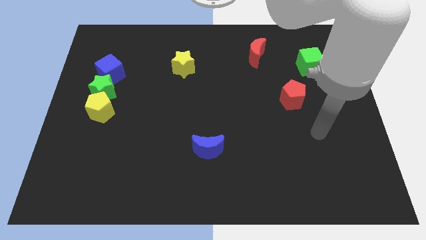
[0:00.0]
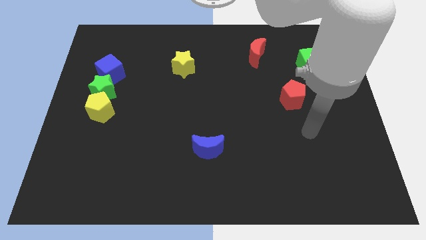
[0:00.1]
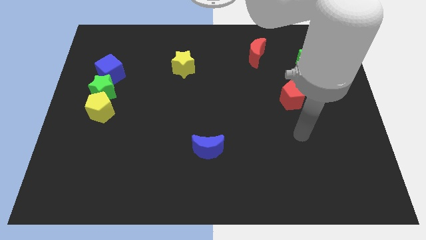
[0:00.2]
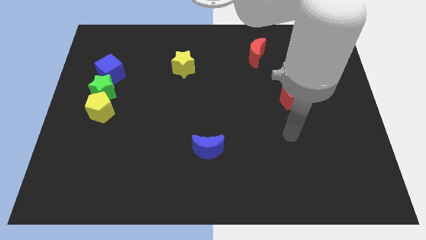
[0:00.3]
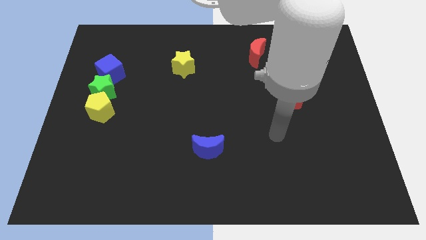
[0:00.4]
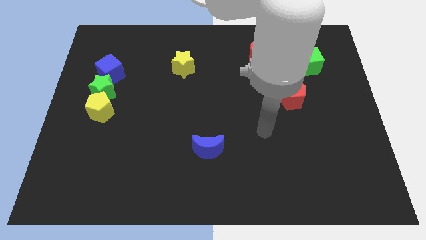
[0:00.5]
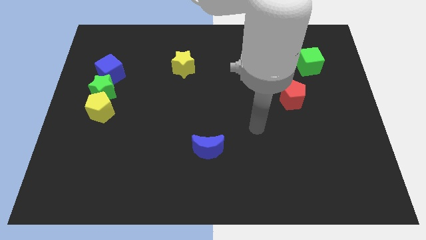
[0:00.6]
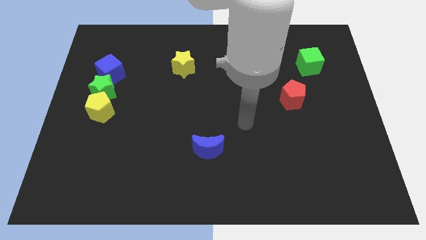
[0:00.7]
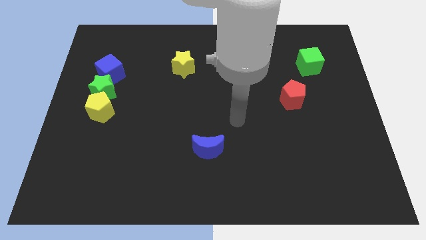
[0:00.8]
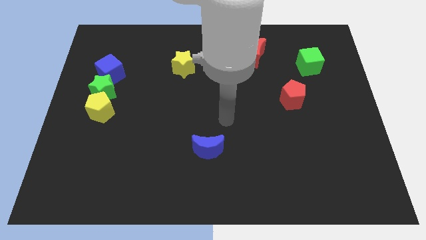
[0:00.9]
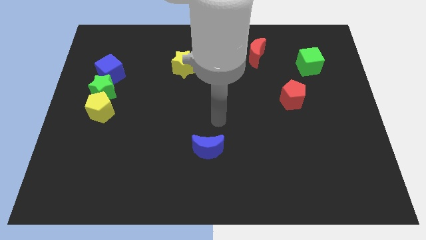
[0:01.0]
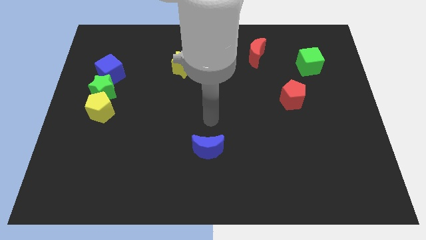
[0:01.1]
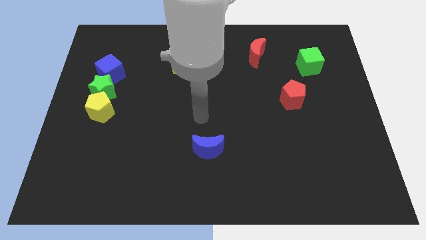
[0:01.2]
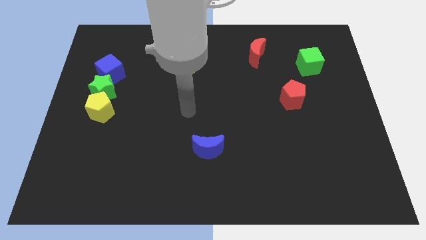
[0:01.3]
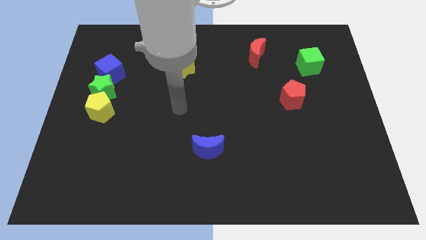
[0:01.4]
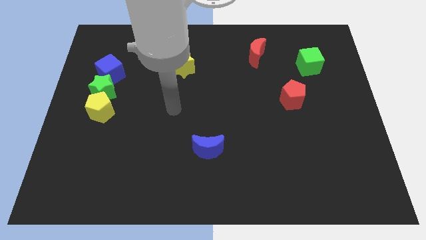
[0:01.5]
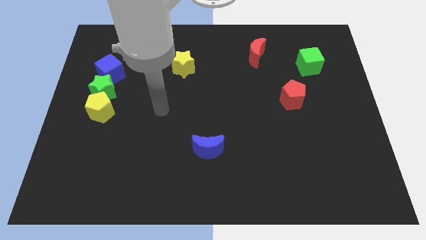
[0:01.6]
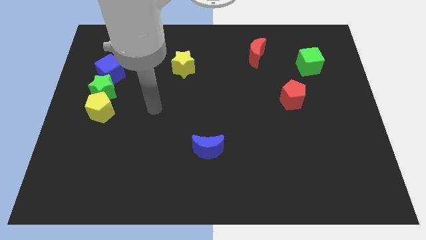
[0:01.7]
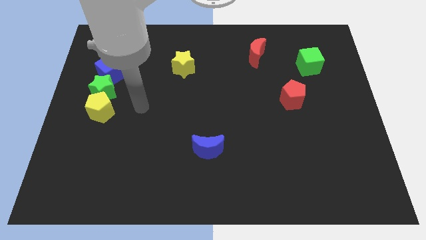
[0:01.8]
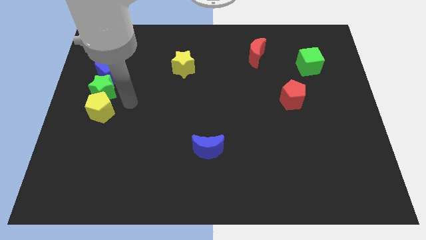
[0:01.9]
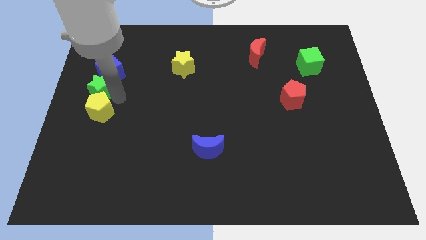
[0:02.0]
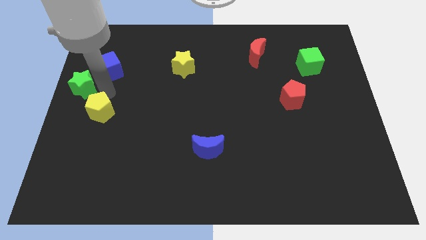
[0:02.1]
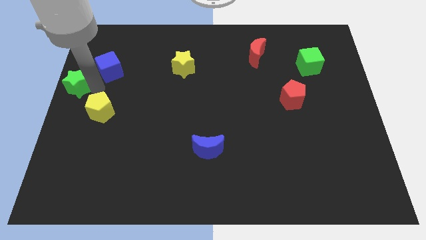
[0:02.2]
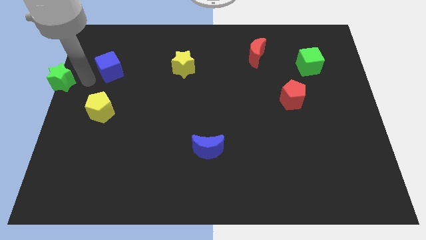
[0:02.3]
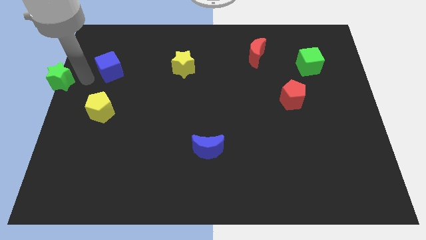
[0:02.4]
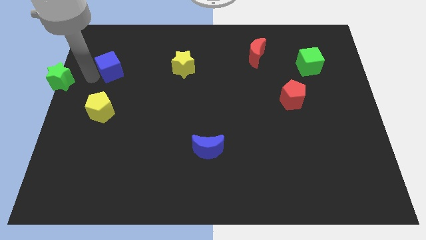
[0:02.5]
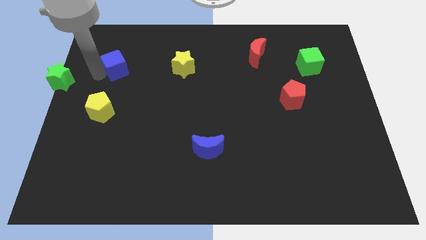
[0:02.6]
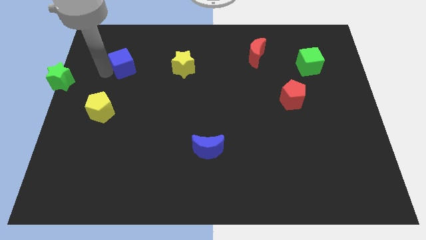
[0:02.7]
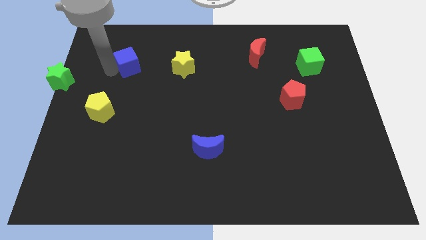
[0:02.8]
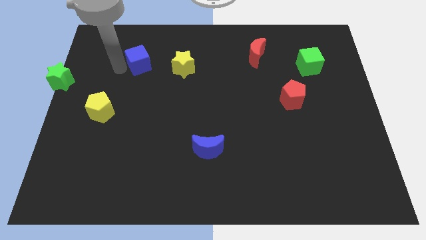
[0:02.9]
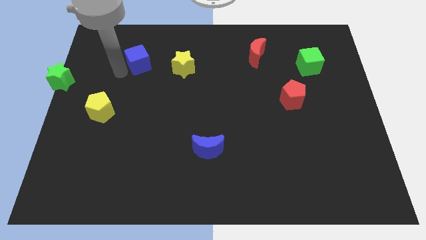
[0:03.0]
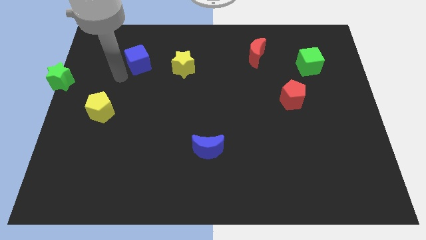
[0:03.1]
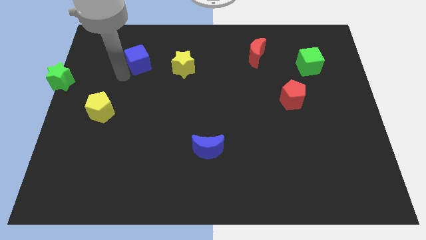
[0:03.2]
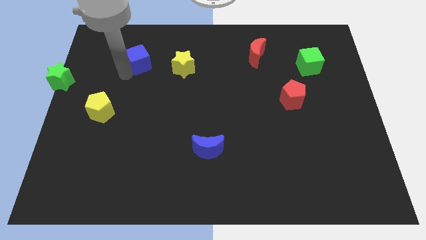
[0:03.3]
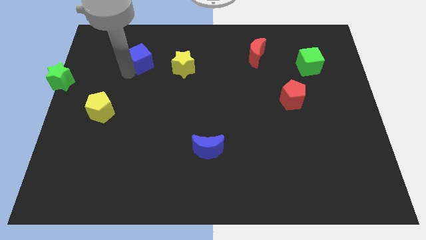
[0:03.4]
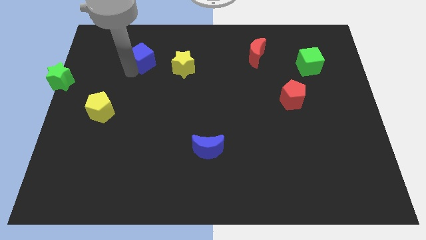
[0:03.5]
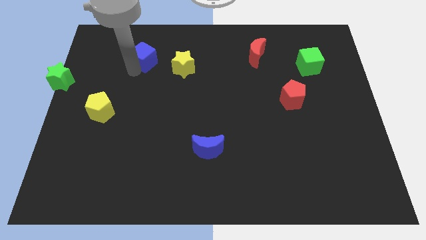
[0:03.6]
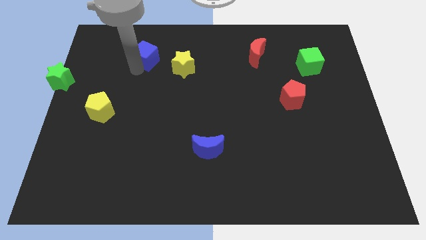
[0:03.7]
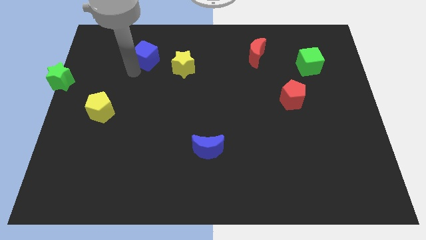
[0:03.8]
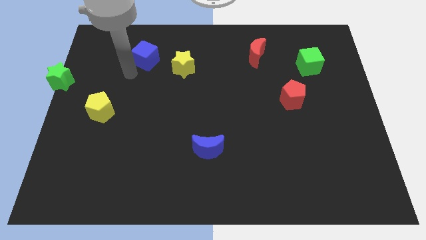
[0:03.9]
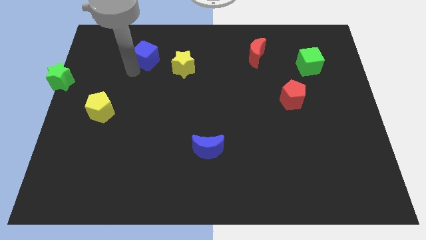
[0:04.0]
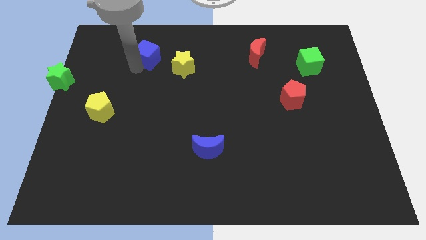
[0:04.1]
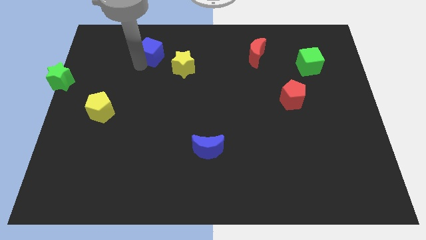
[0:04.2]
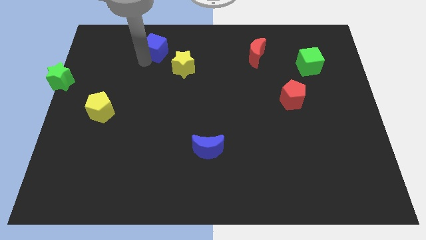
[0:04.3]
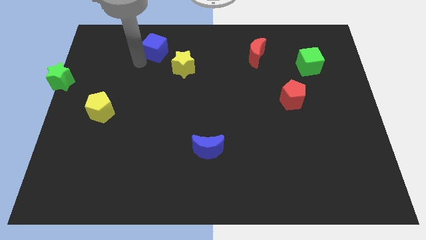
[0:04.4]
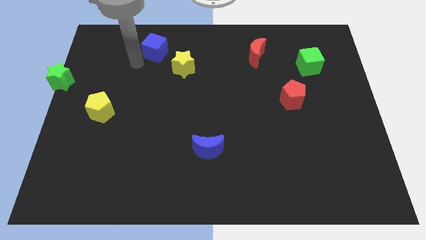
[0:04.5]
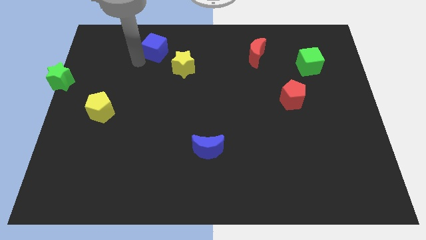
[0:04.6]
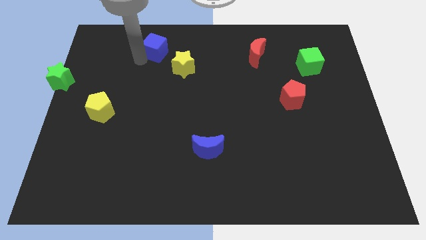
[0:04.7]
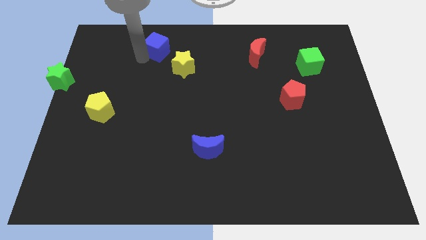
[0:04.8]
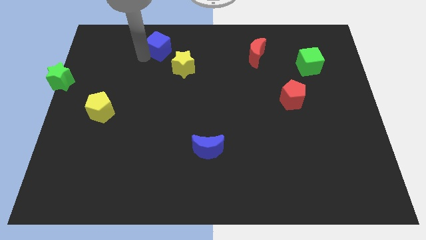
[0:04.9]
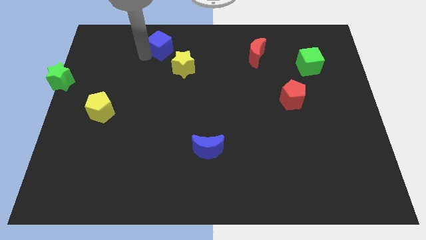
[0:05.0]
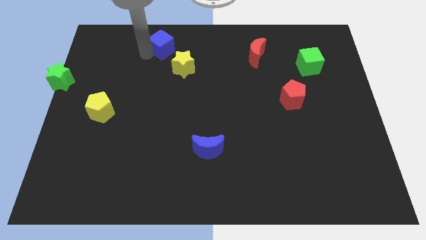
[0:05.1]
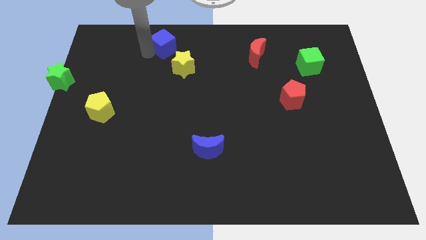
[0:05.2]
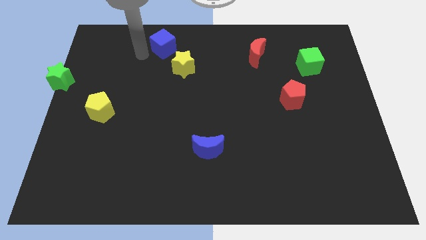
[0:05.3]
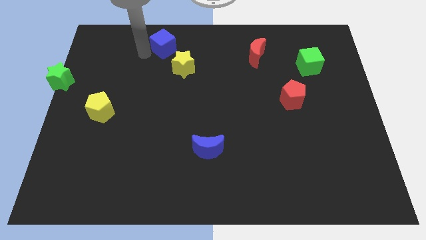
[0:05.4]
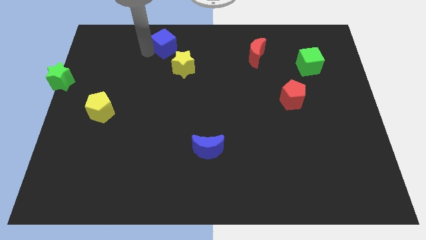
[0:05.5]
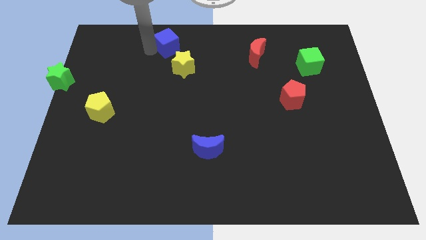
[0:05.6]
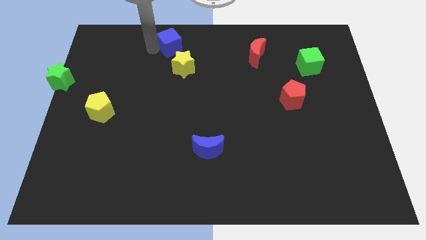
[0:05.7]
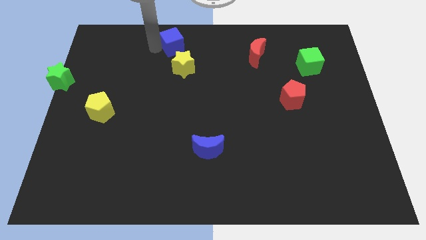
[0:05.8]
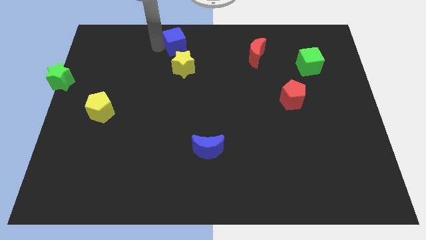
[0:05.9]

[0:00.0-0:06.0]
move the blue cube to the top

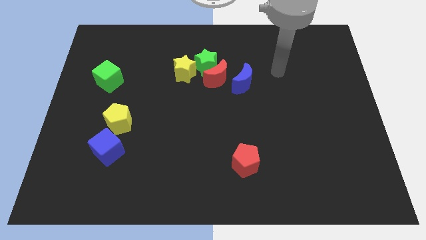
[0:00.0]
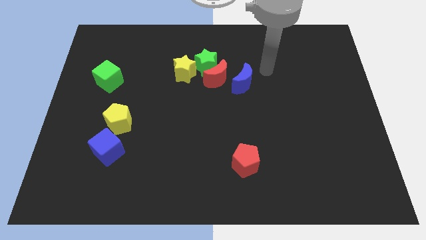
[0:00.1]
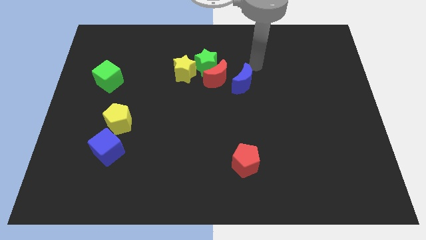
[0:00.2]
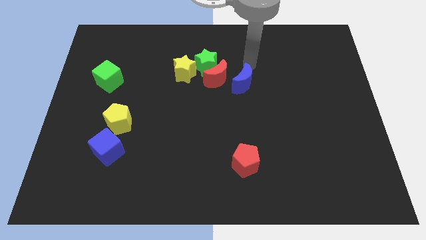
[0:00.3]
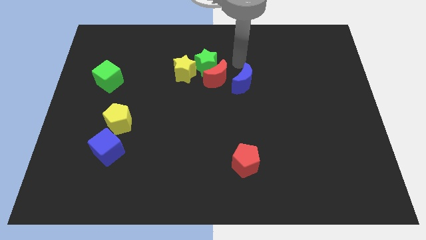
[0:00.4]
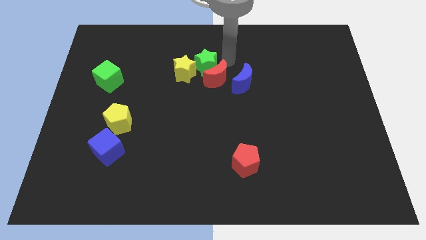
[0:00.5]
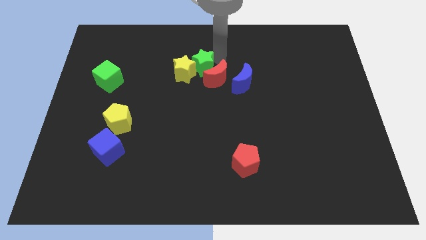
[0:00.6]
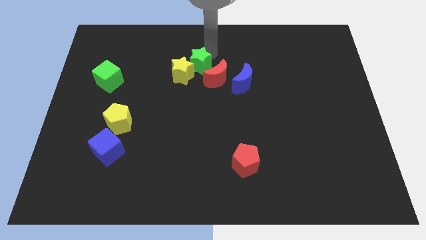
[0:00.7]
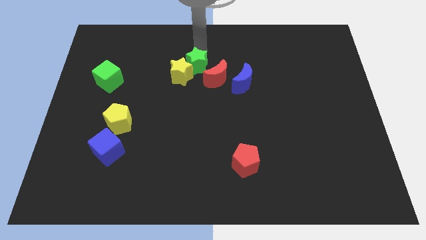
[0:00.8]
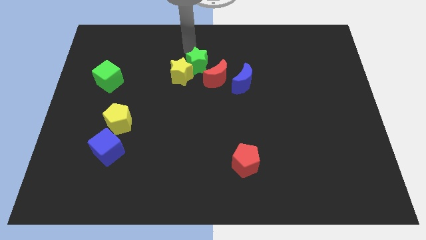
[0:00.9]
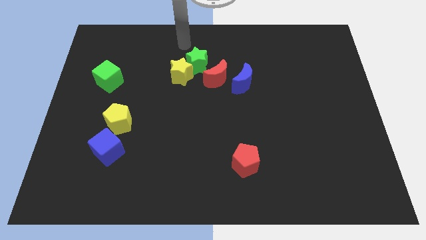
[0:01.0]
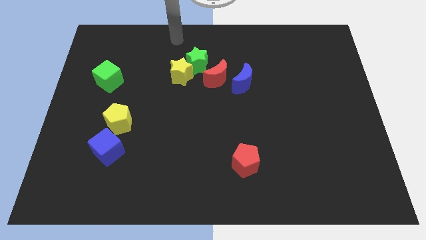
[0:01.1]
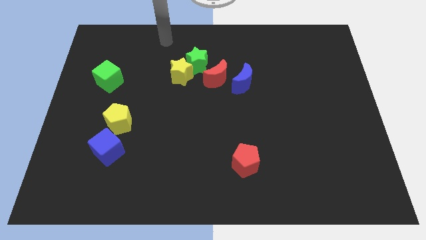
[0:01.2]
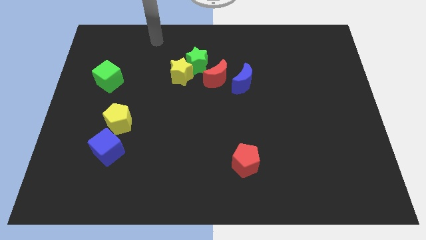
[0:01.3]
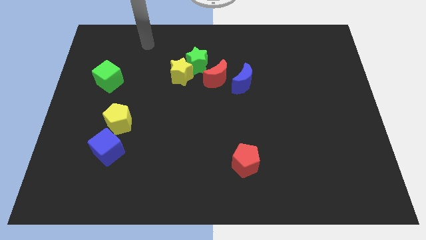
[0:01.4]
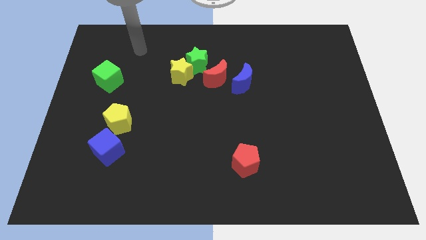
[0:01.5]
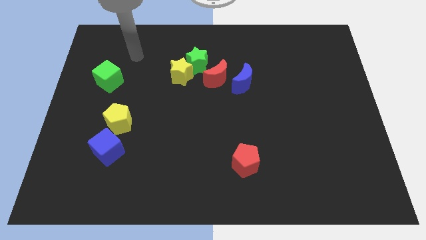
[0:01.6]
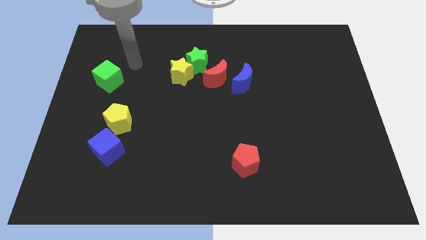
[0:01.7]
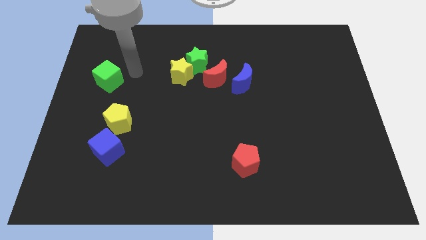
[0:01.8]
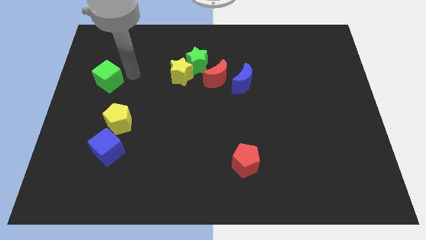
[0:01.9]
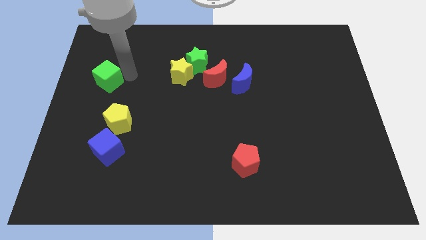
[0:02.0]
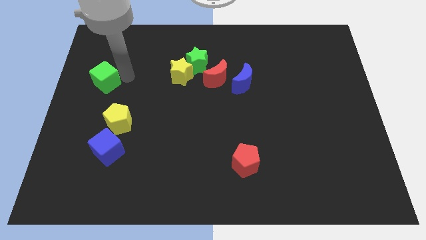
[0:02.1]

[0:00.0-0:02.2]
slide the green cube to the left side of the board
